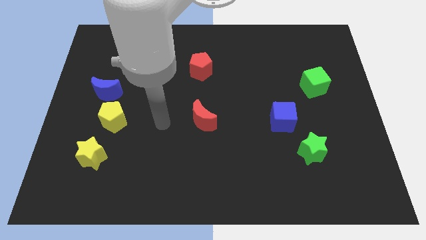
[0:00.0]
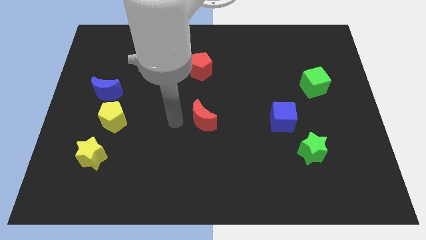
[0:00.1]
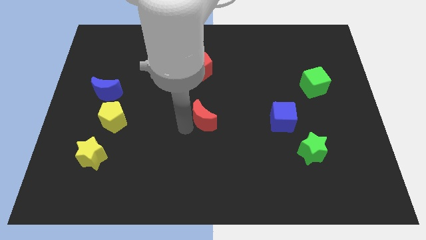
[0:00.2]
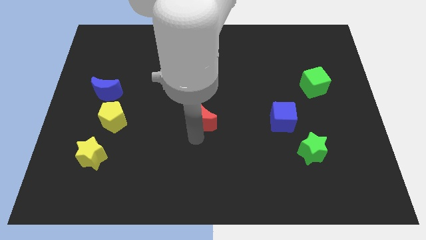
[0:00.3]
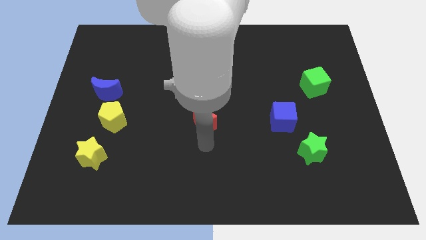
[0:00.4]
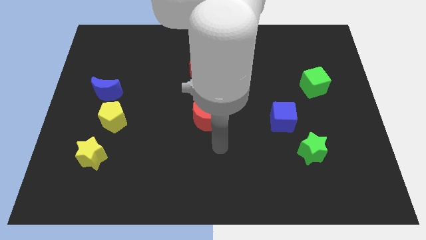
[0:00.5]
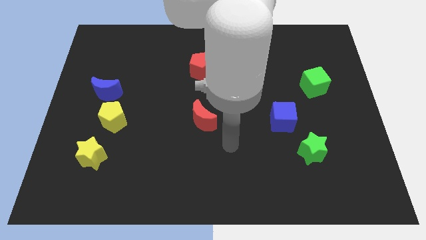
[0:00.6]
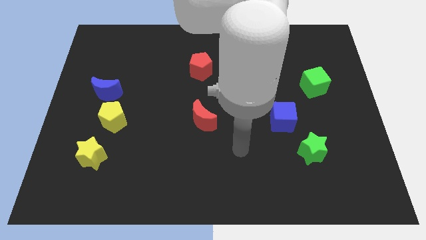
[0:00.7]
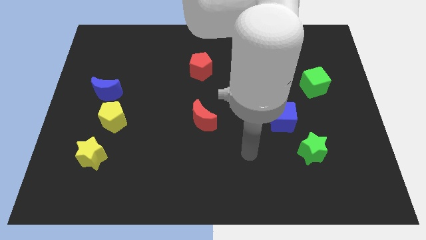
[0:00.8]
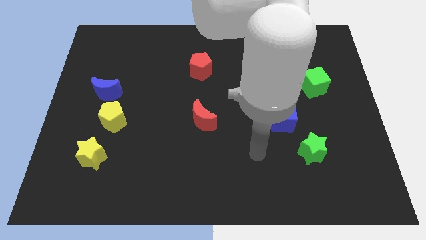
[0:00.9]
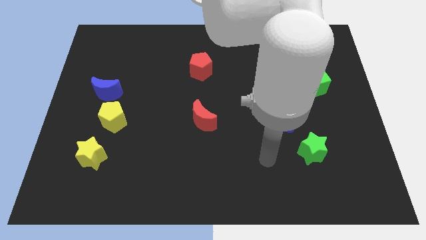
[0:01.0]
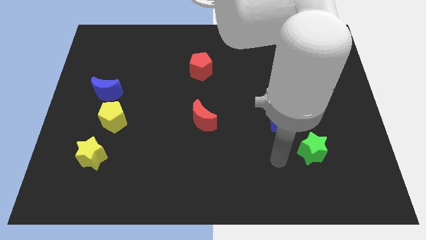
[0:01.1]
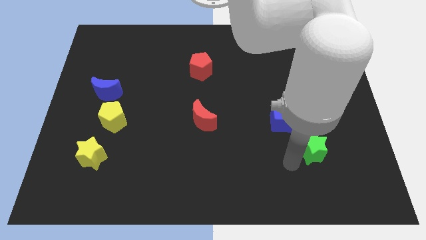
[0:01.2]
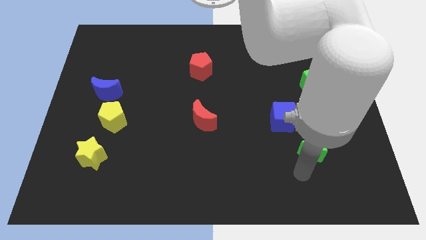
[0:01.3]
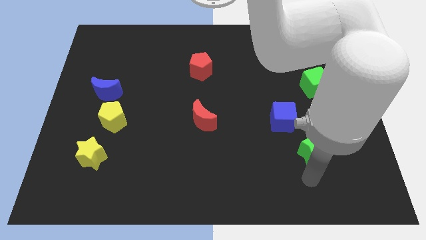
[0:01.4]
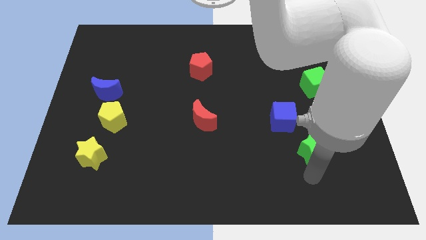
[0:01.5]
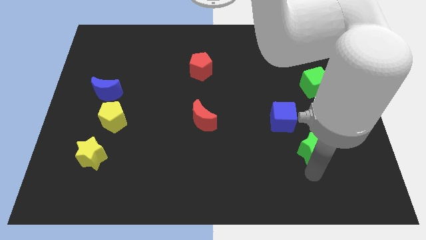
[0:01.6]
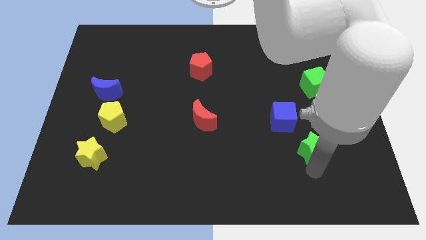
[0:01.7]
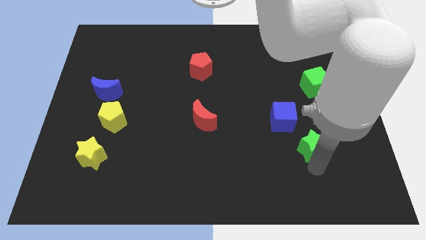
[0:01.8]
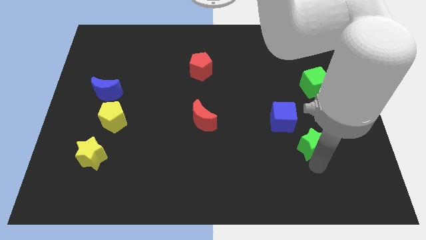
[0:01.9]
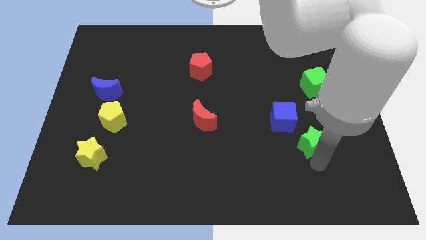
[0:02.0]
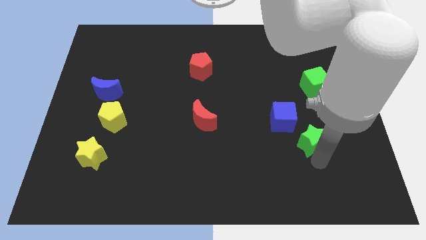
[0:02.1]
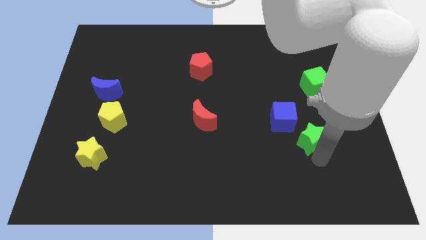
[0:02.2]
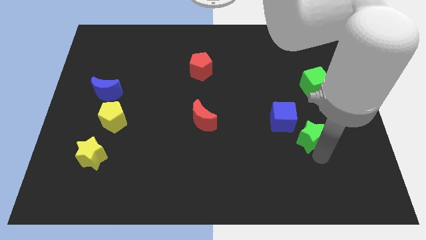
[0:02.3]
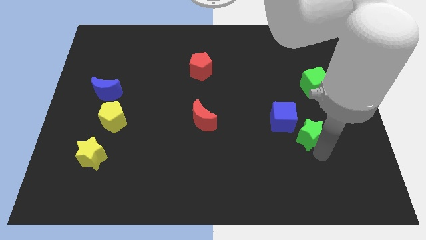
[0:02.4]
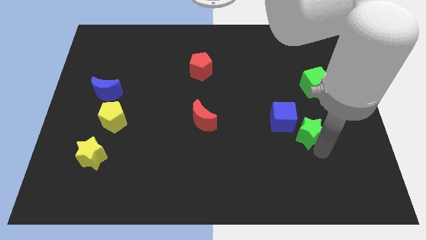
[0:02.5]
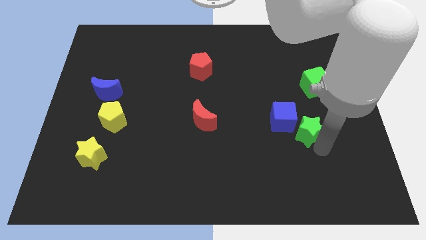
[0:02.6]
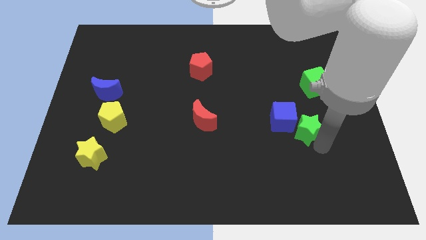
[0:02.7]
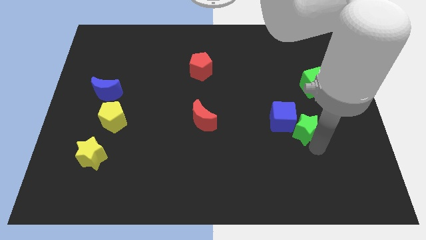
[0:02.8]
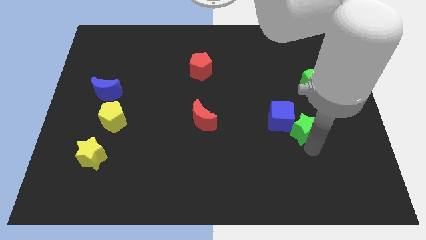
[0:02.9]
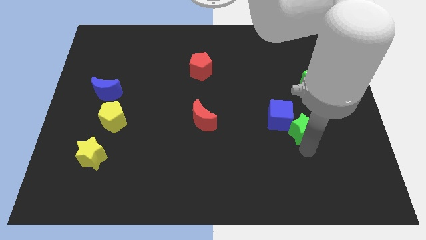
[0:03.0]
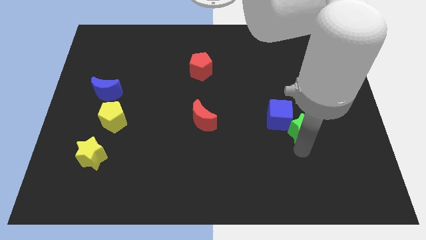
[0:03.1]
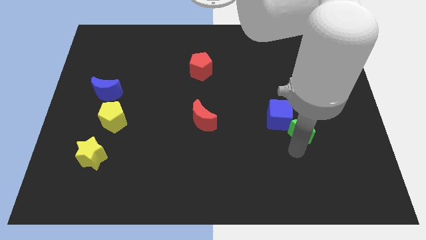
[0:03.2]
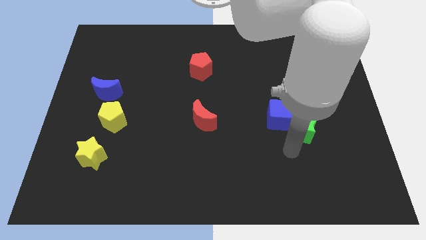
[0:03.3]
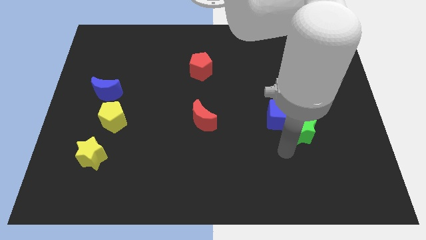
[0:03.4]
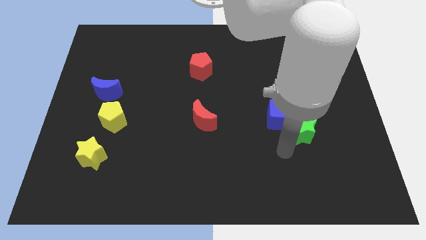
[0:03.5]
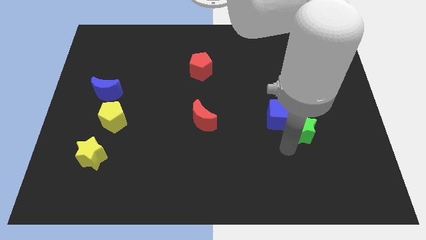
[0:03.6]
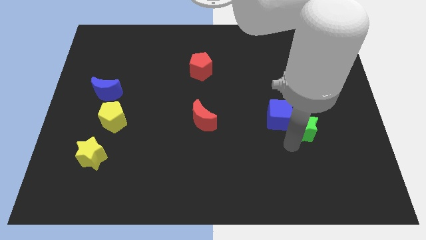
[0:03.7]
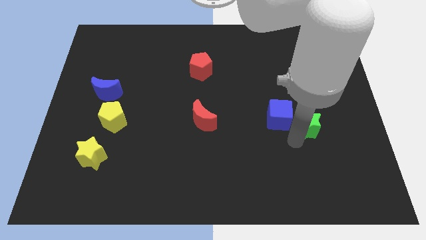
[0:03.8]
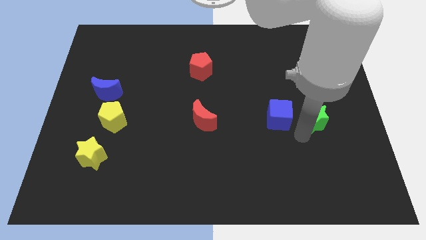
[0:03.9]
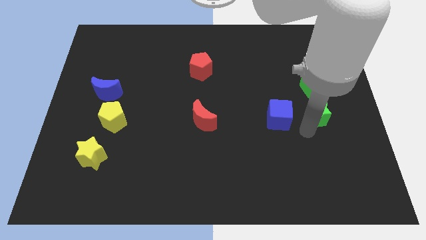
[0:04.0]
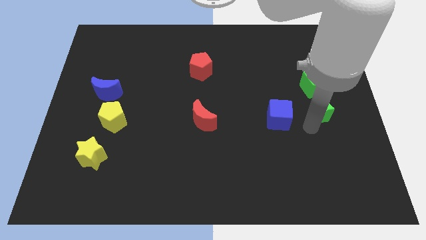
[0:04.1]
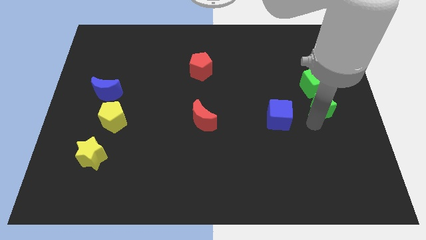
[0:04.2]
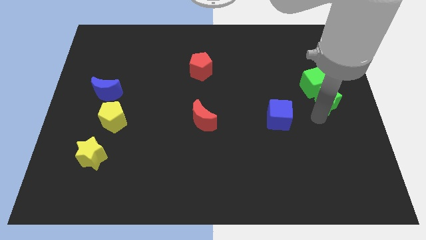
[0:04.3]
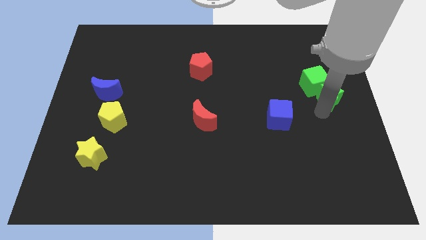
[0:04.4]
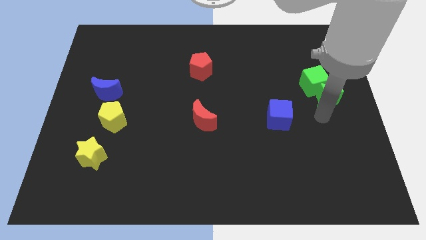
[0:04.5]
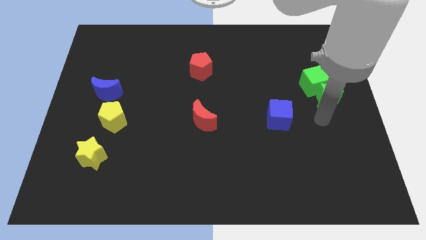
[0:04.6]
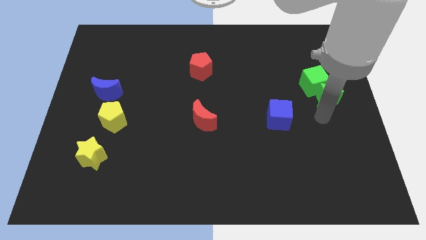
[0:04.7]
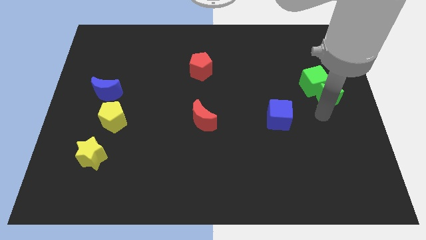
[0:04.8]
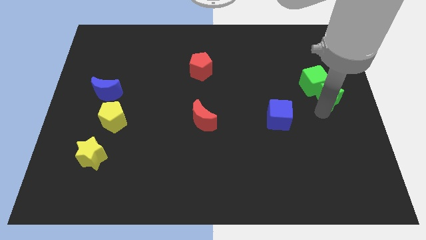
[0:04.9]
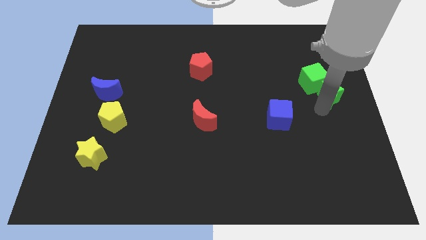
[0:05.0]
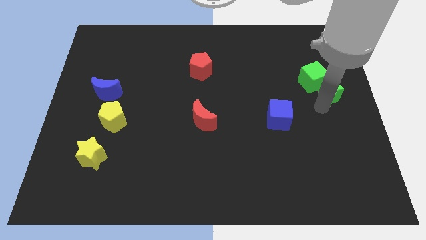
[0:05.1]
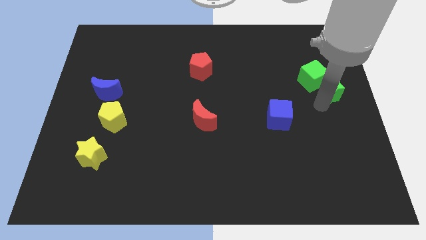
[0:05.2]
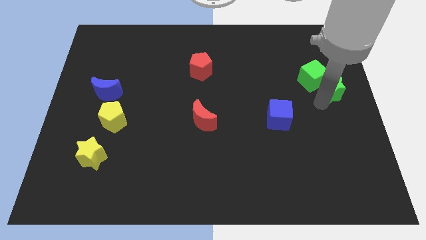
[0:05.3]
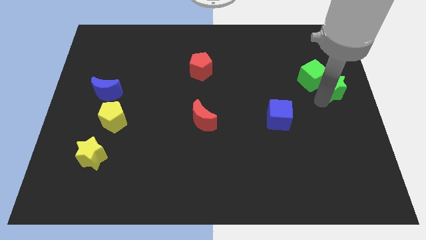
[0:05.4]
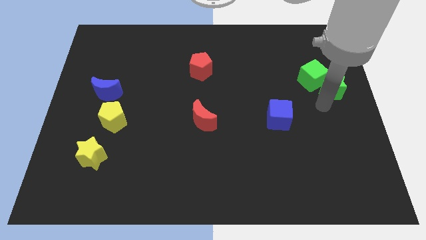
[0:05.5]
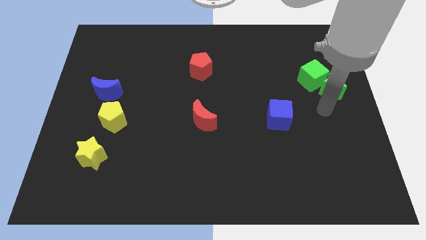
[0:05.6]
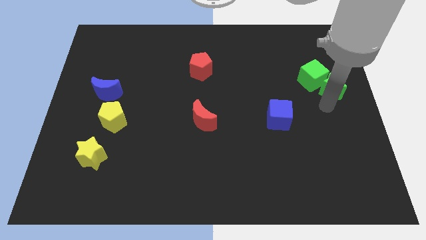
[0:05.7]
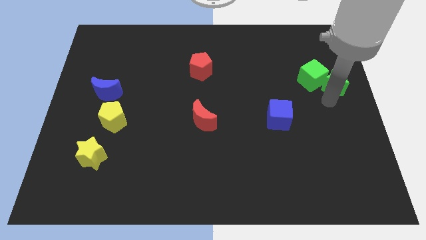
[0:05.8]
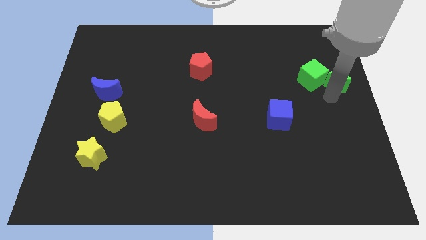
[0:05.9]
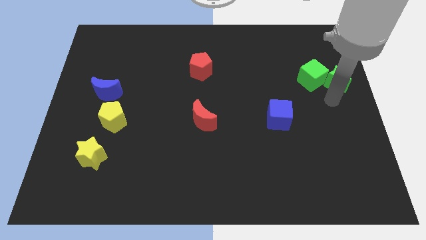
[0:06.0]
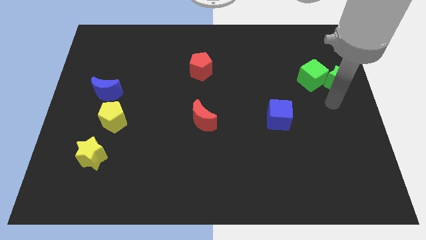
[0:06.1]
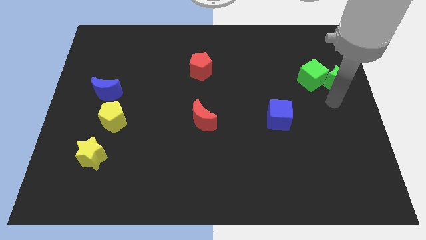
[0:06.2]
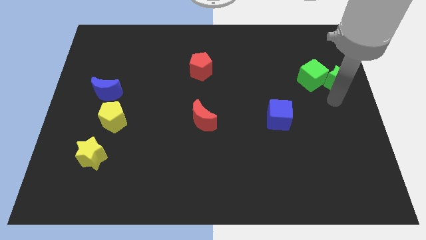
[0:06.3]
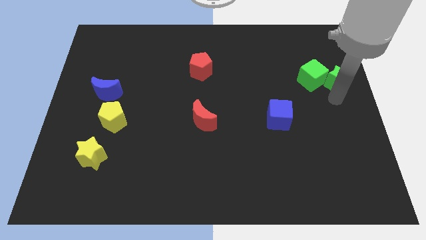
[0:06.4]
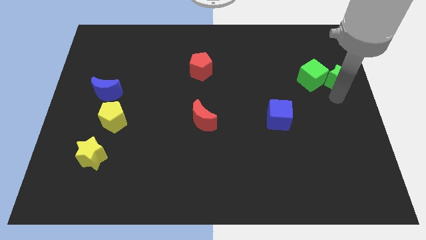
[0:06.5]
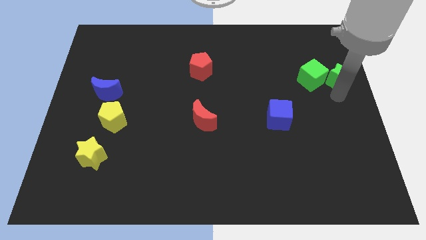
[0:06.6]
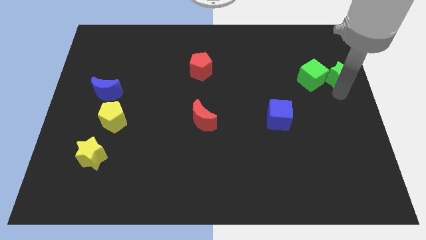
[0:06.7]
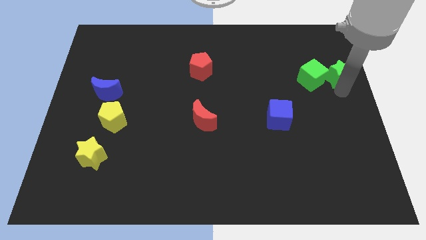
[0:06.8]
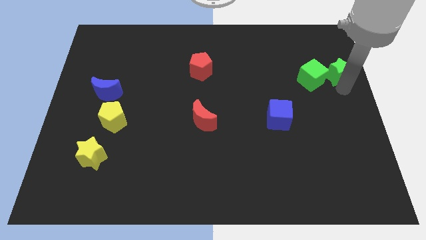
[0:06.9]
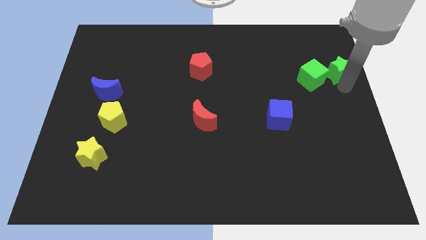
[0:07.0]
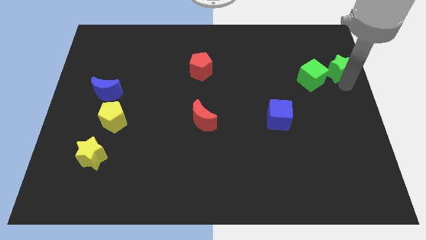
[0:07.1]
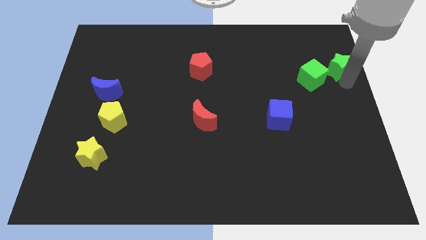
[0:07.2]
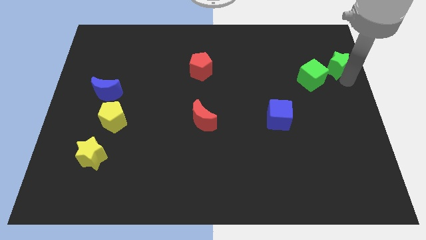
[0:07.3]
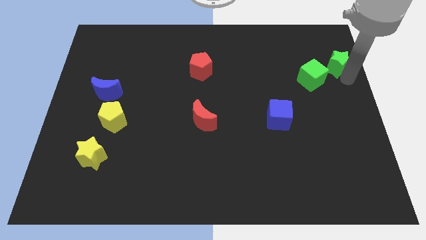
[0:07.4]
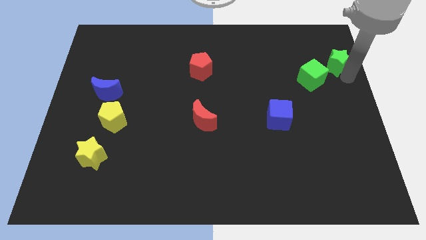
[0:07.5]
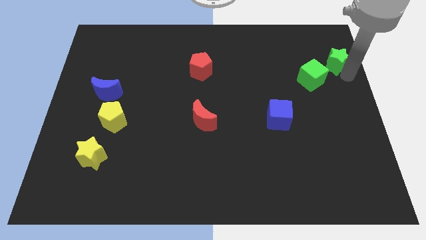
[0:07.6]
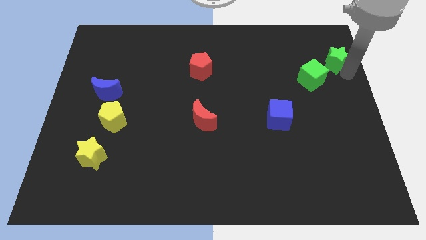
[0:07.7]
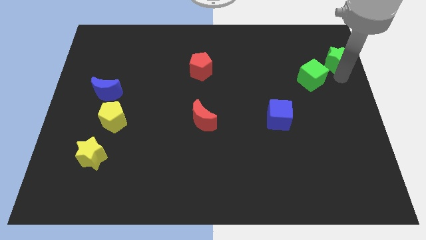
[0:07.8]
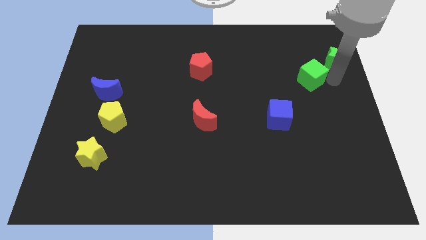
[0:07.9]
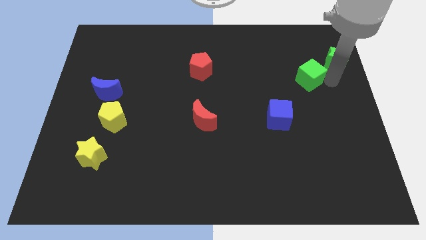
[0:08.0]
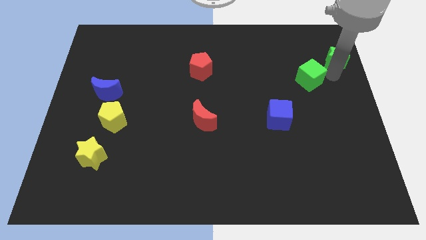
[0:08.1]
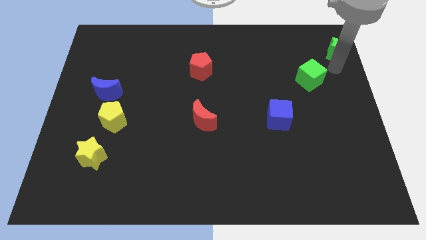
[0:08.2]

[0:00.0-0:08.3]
push the green star to the upper right corner
